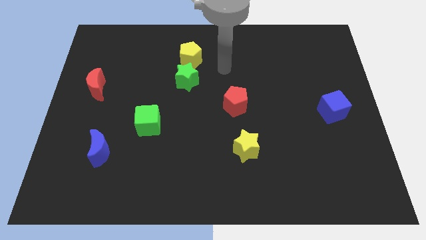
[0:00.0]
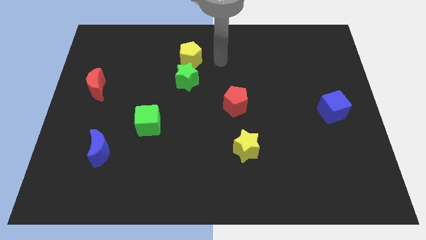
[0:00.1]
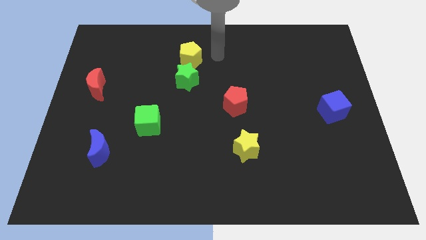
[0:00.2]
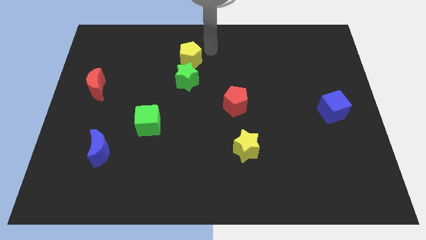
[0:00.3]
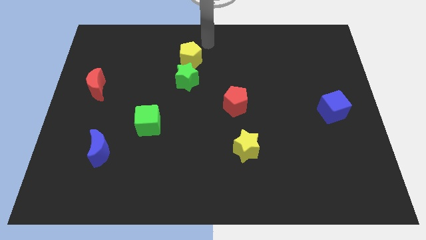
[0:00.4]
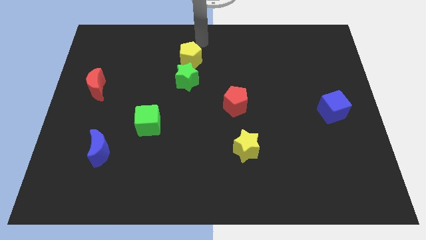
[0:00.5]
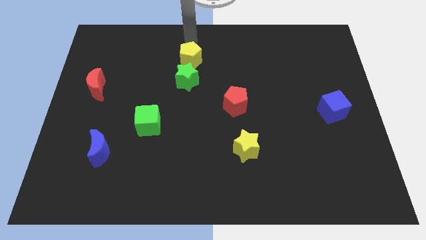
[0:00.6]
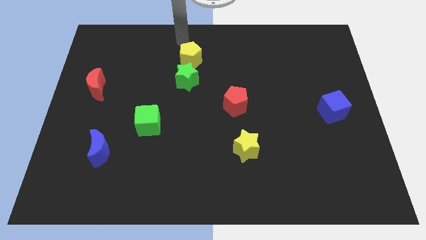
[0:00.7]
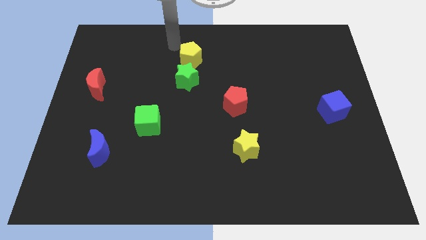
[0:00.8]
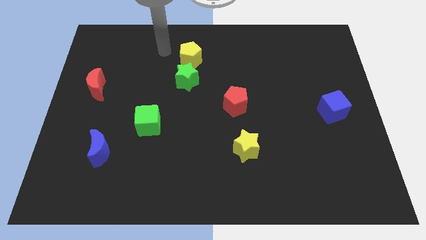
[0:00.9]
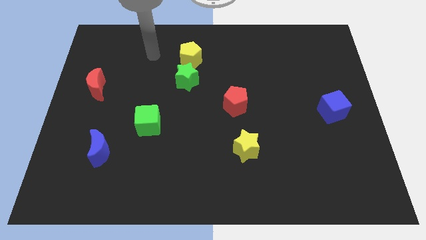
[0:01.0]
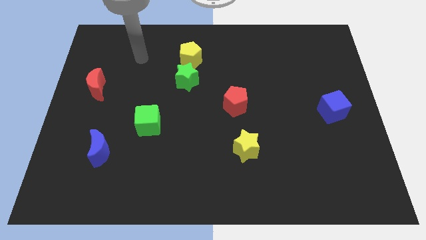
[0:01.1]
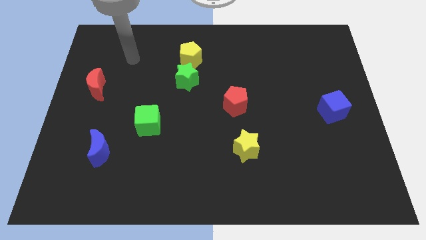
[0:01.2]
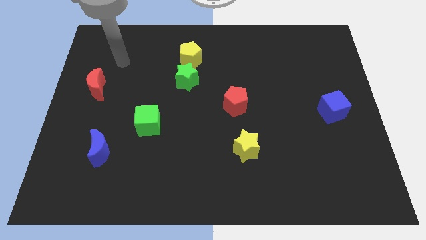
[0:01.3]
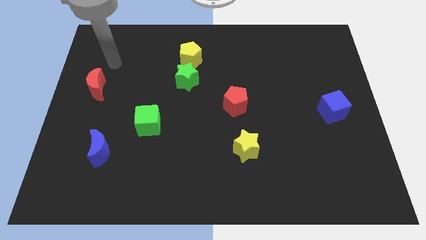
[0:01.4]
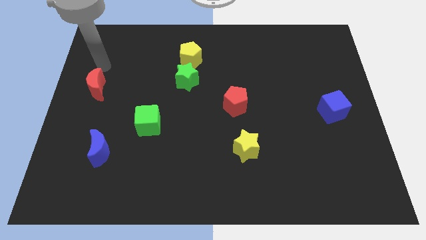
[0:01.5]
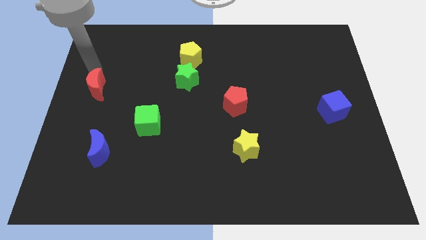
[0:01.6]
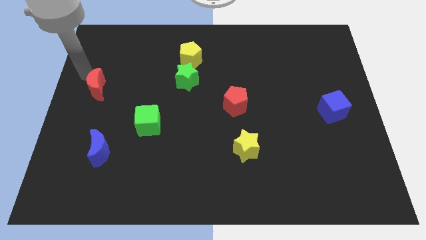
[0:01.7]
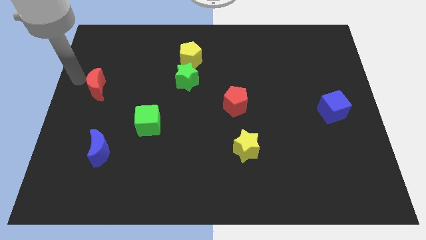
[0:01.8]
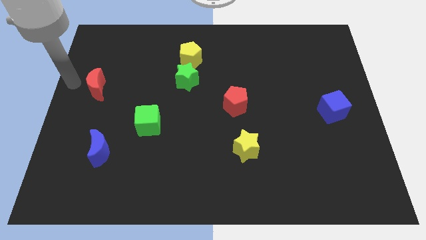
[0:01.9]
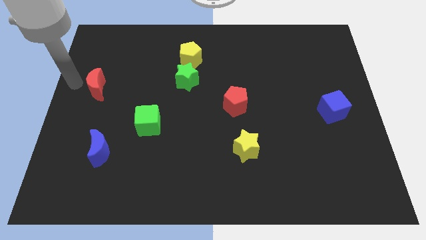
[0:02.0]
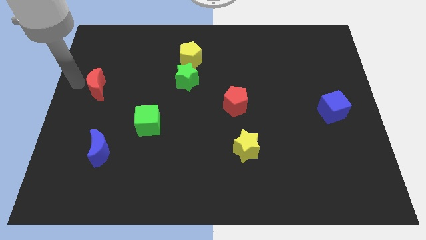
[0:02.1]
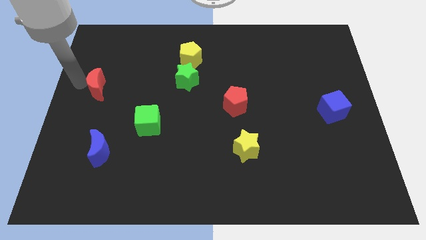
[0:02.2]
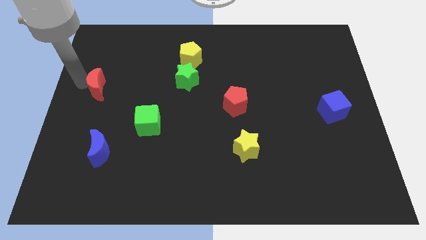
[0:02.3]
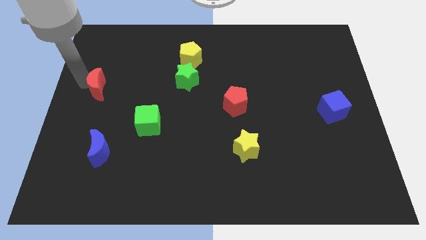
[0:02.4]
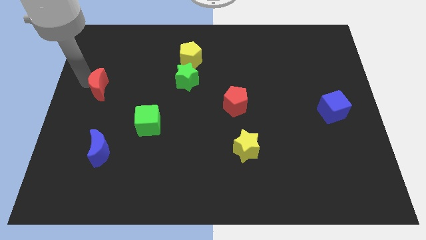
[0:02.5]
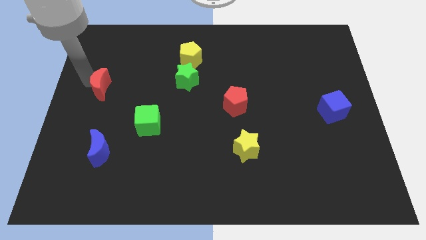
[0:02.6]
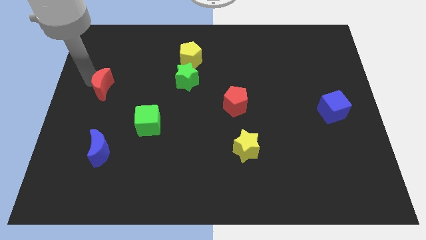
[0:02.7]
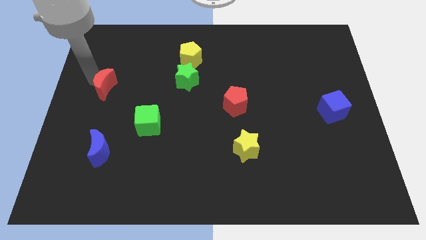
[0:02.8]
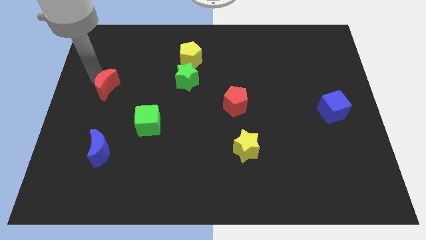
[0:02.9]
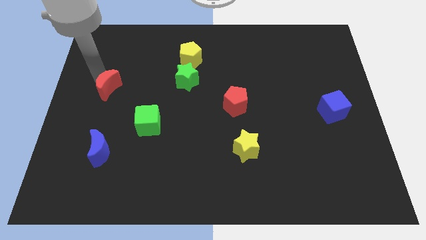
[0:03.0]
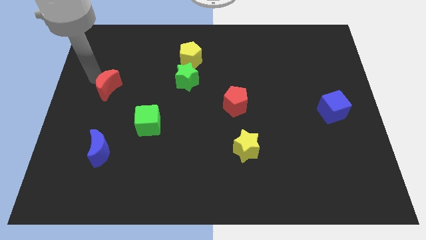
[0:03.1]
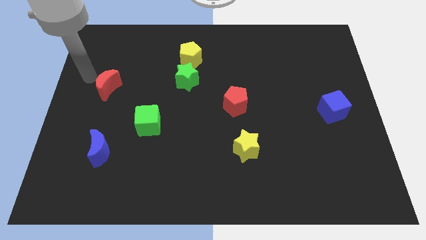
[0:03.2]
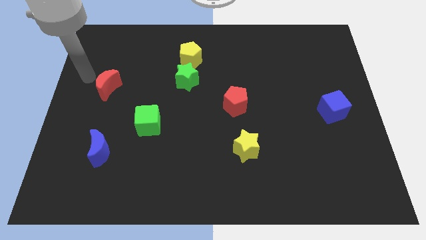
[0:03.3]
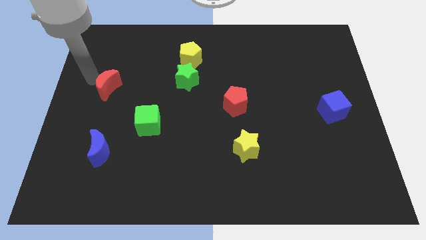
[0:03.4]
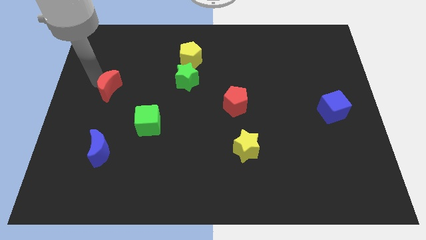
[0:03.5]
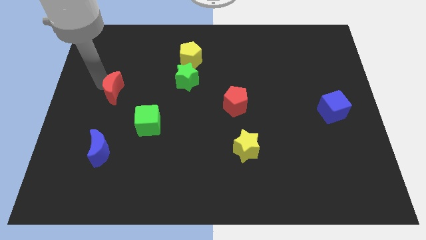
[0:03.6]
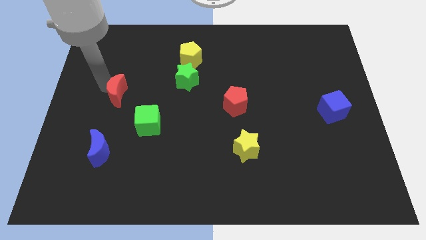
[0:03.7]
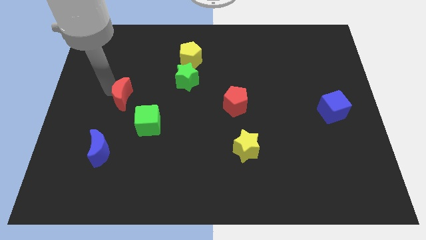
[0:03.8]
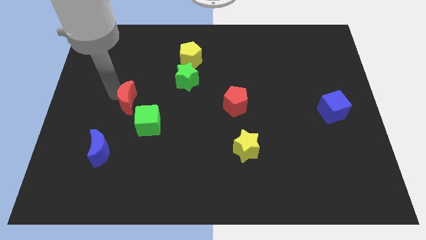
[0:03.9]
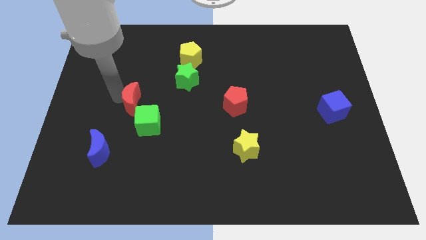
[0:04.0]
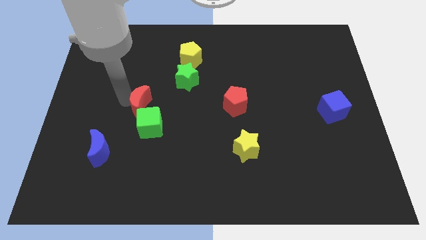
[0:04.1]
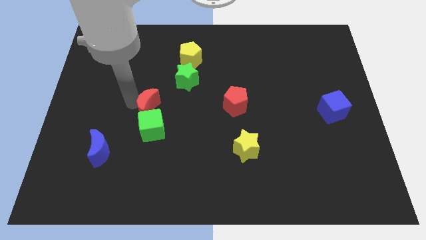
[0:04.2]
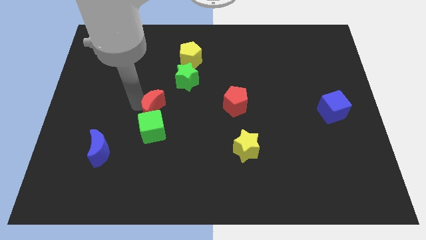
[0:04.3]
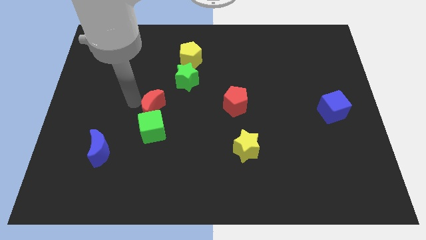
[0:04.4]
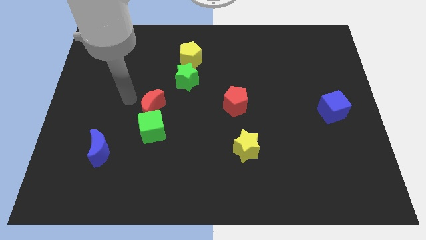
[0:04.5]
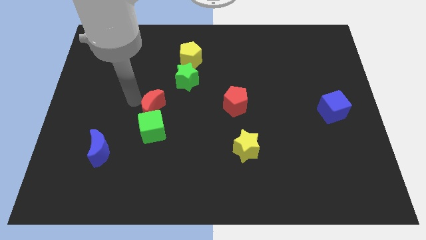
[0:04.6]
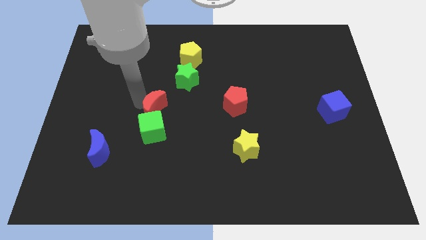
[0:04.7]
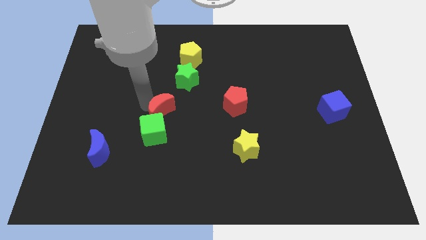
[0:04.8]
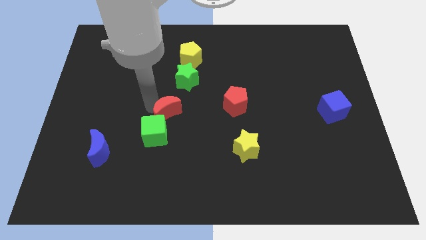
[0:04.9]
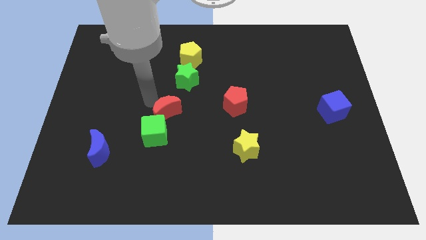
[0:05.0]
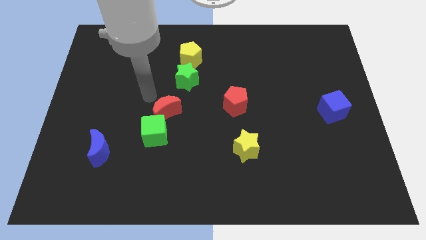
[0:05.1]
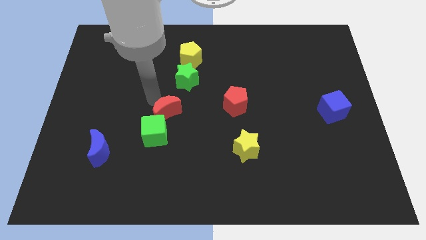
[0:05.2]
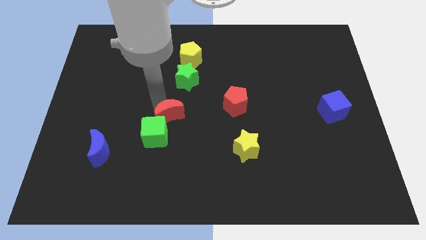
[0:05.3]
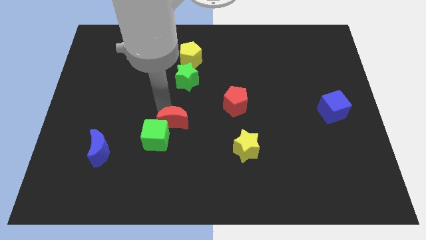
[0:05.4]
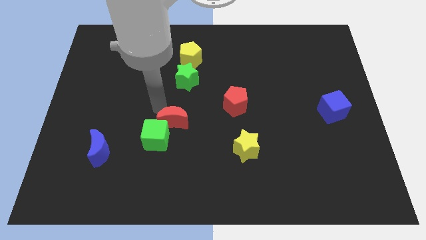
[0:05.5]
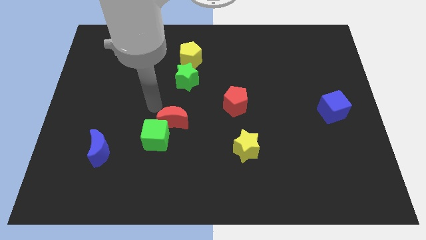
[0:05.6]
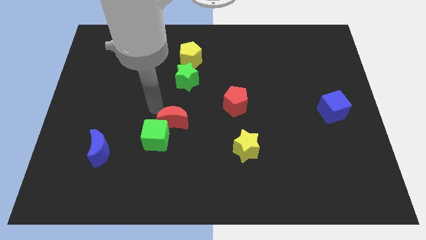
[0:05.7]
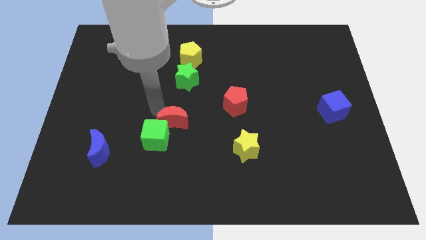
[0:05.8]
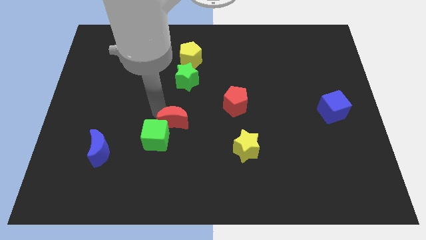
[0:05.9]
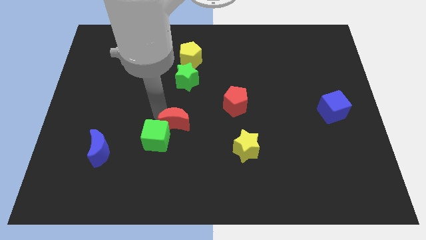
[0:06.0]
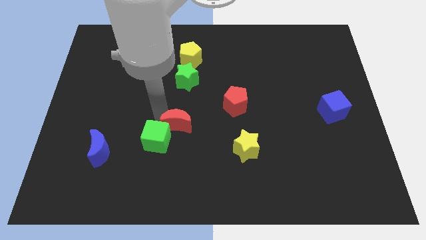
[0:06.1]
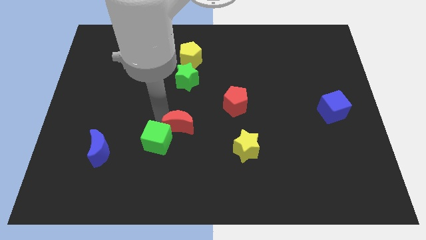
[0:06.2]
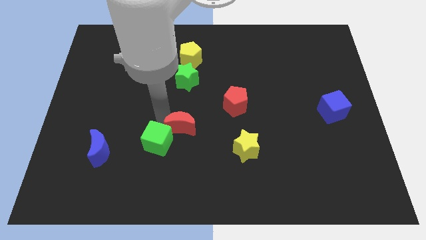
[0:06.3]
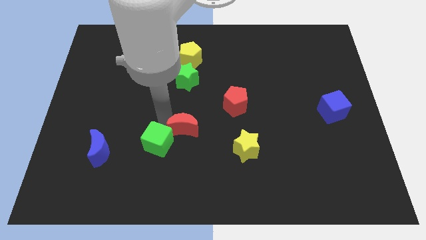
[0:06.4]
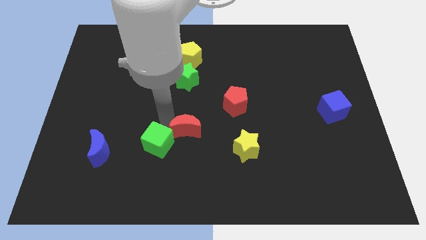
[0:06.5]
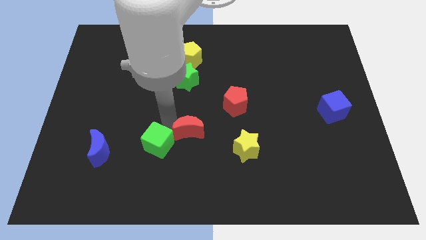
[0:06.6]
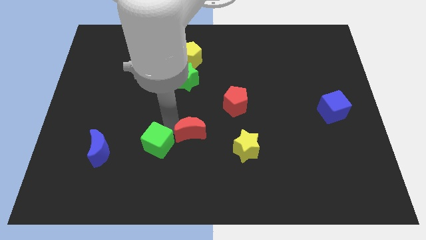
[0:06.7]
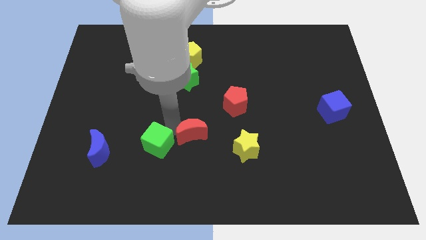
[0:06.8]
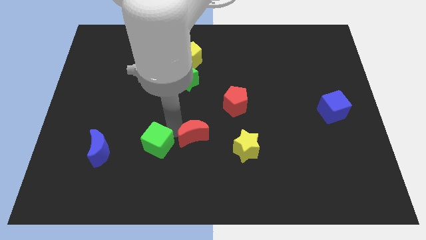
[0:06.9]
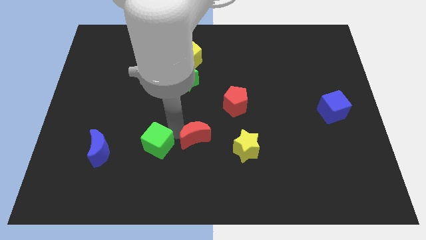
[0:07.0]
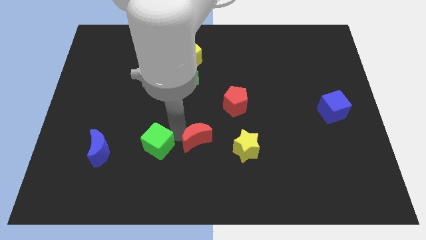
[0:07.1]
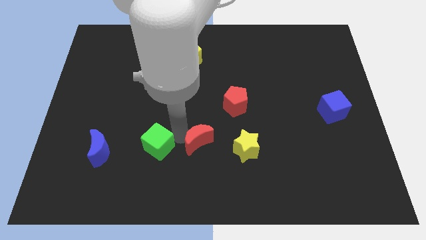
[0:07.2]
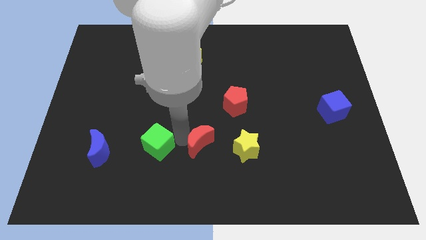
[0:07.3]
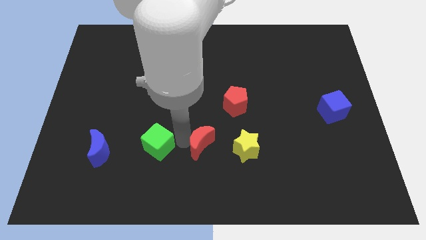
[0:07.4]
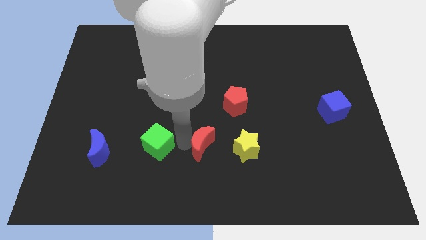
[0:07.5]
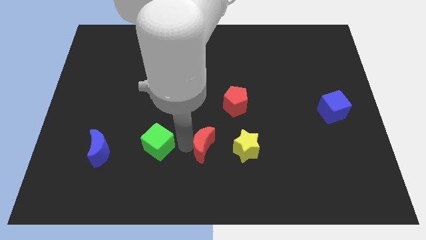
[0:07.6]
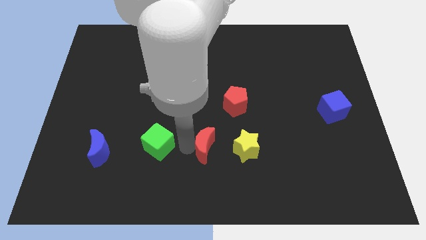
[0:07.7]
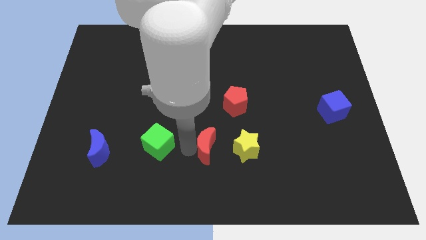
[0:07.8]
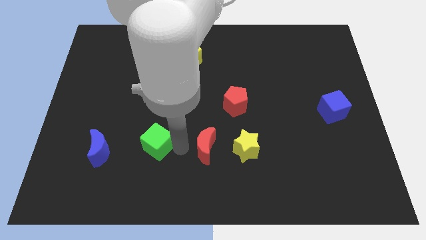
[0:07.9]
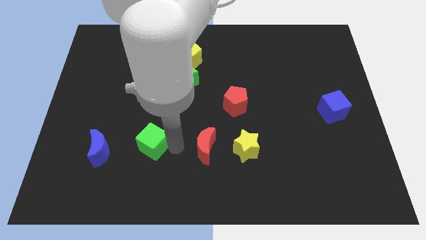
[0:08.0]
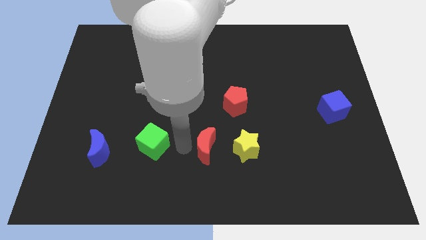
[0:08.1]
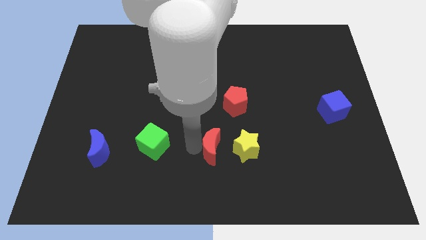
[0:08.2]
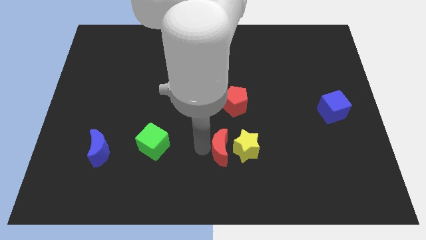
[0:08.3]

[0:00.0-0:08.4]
slide the red moon to the yellow star
